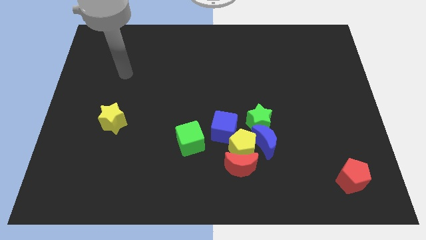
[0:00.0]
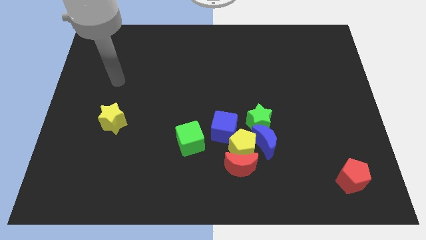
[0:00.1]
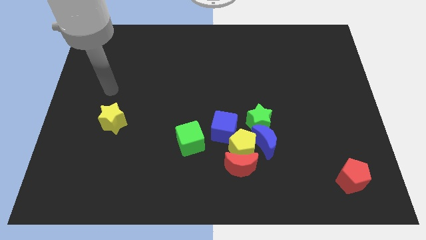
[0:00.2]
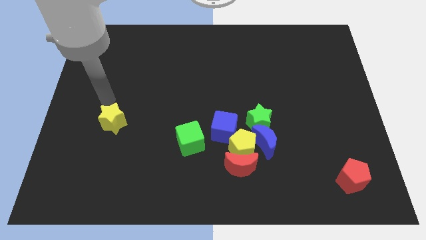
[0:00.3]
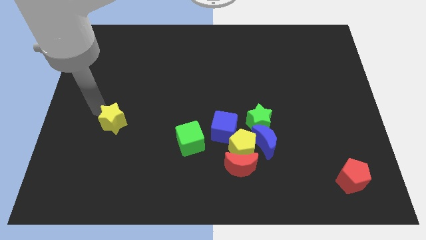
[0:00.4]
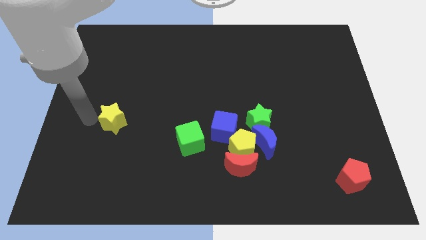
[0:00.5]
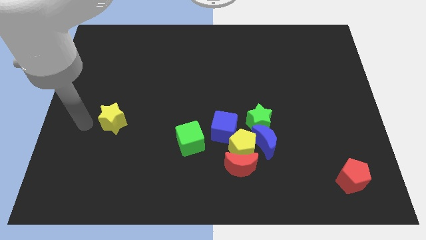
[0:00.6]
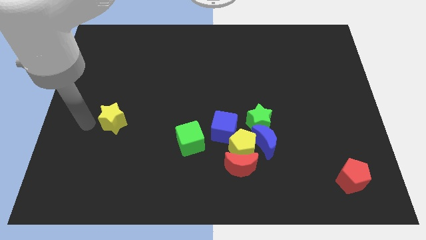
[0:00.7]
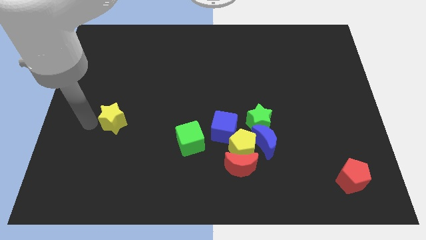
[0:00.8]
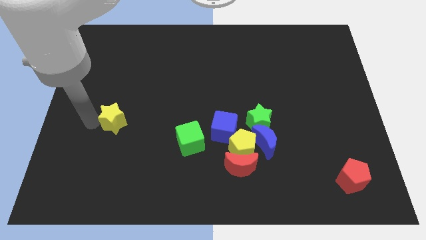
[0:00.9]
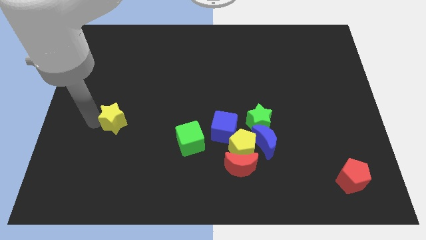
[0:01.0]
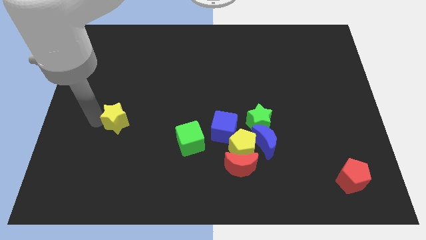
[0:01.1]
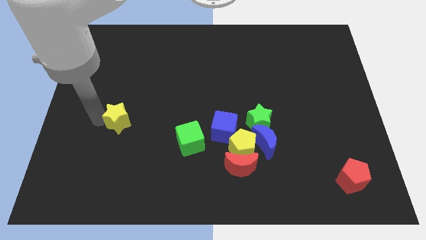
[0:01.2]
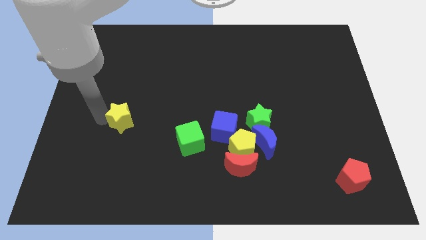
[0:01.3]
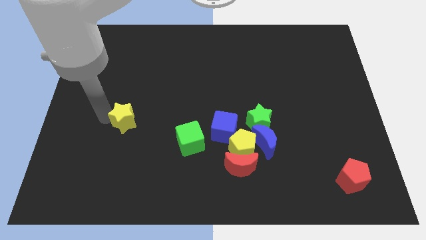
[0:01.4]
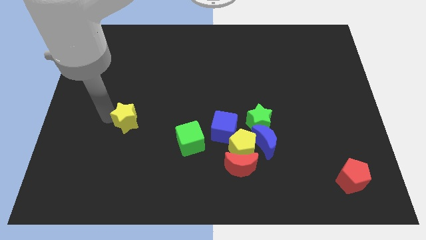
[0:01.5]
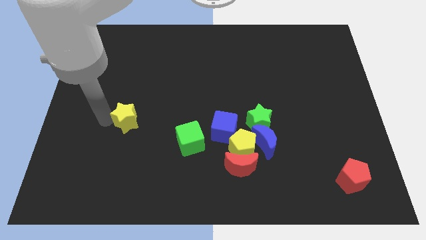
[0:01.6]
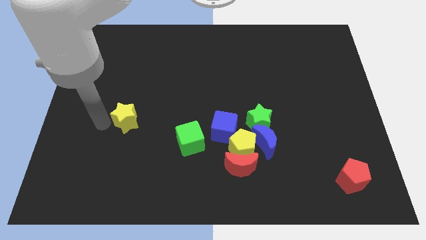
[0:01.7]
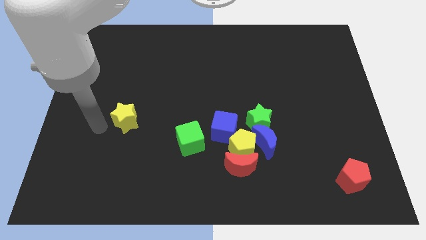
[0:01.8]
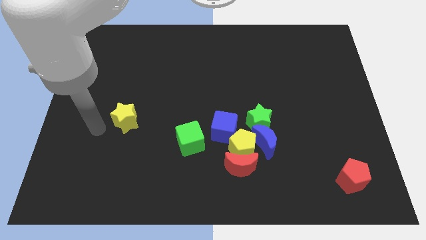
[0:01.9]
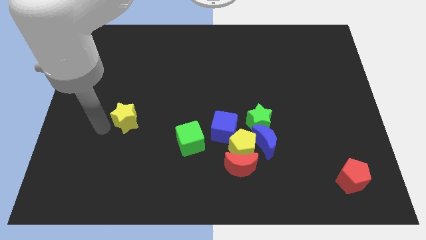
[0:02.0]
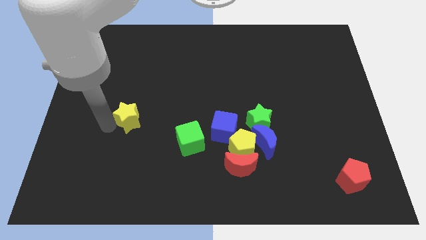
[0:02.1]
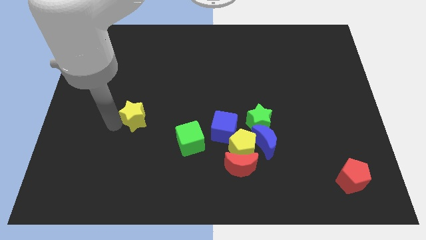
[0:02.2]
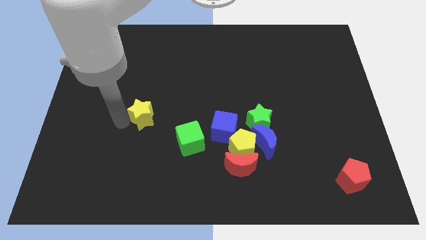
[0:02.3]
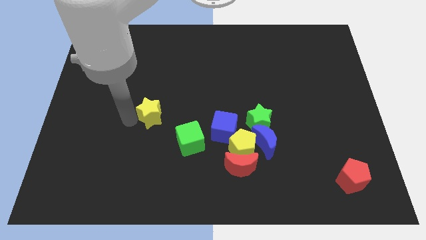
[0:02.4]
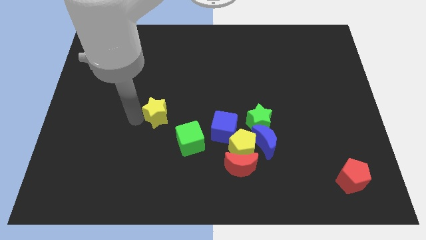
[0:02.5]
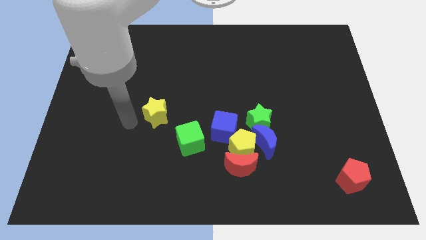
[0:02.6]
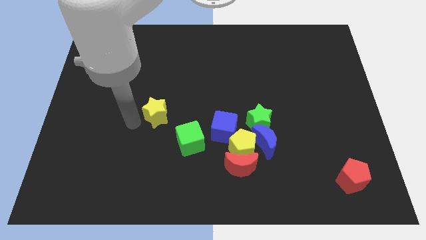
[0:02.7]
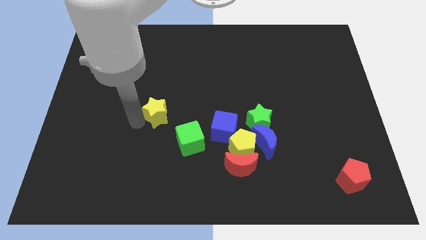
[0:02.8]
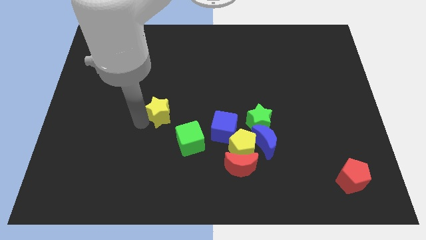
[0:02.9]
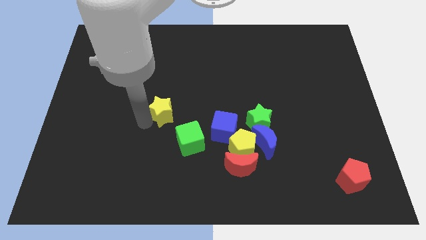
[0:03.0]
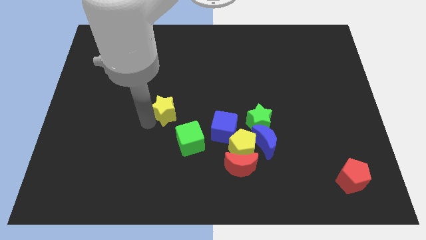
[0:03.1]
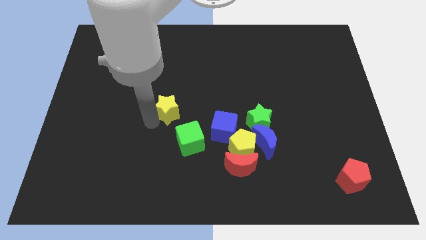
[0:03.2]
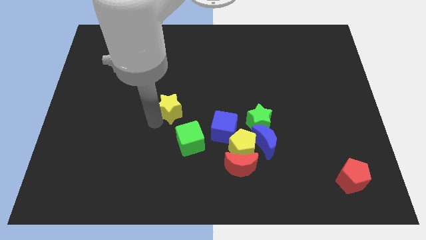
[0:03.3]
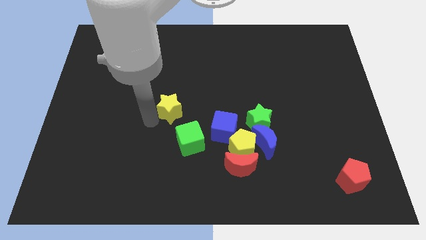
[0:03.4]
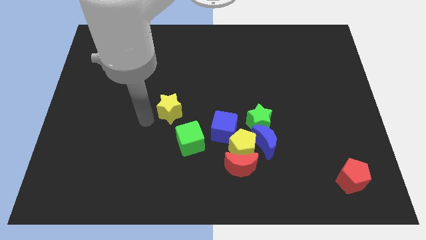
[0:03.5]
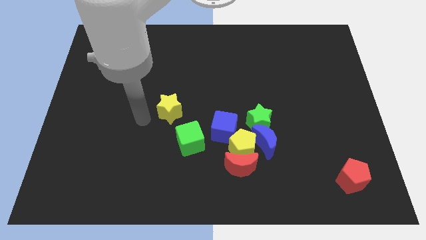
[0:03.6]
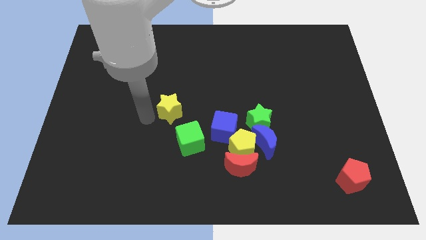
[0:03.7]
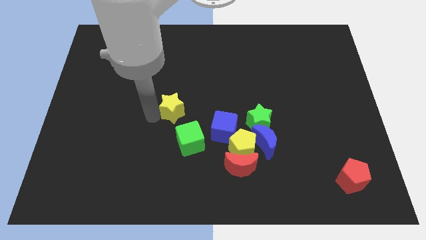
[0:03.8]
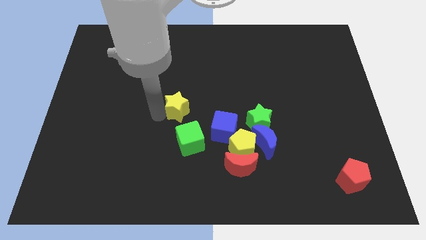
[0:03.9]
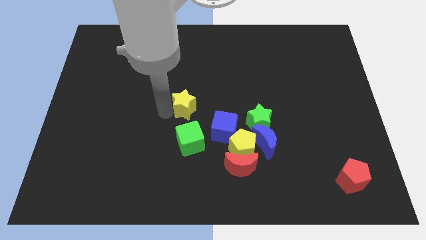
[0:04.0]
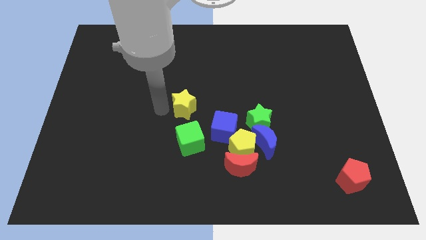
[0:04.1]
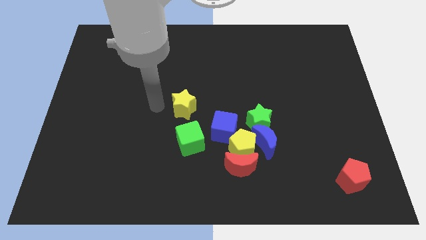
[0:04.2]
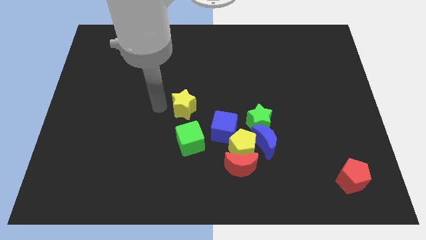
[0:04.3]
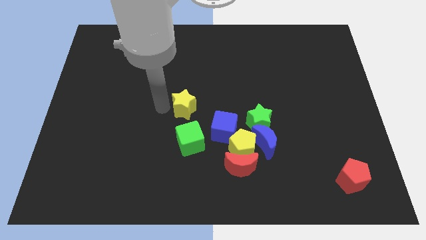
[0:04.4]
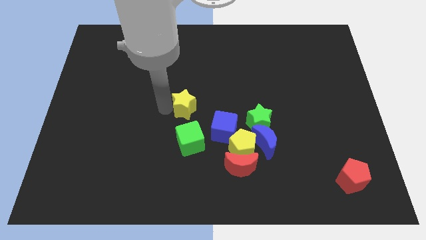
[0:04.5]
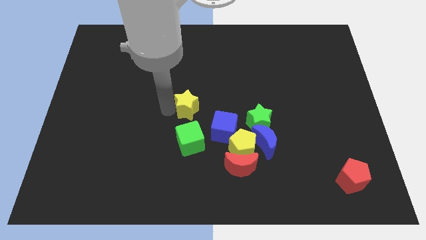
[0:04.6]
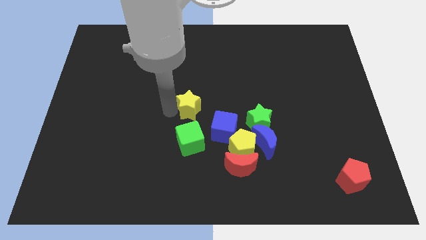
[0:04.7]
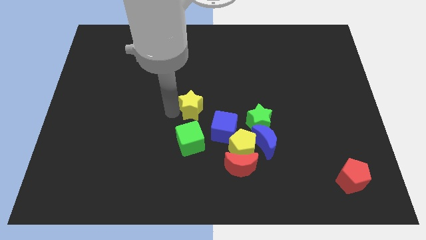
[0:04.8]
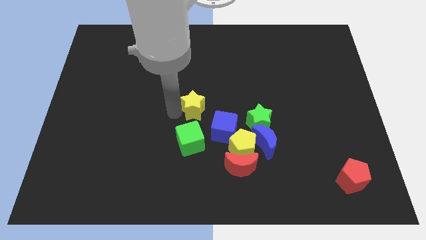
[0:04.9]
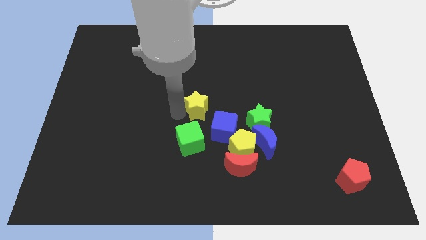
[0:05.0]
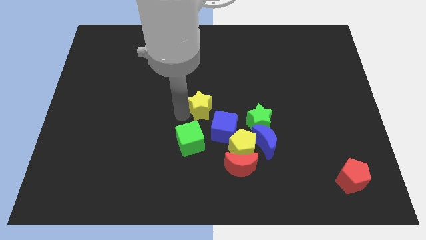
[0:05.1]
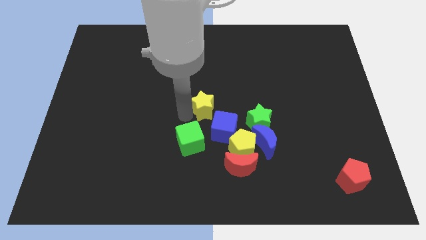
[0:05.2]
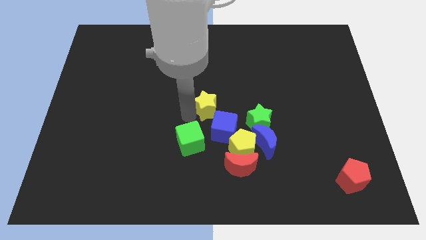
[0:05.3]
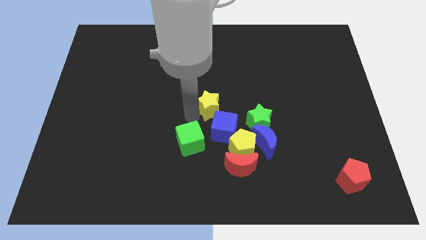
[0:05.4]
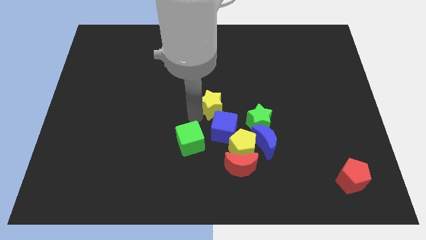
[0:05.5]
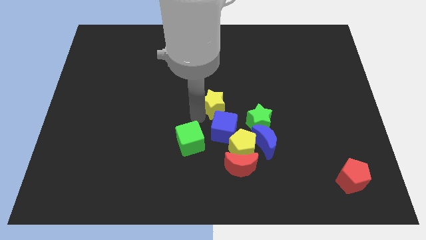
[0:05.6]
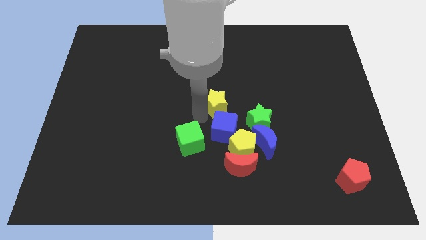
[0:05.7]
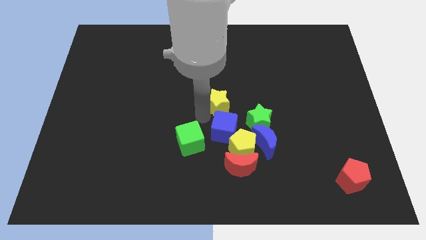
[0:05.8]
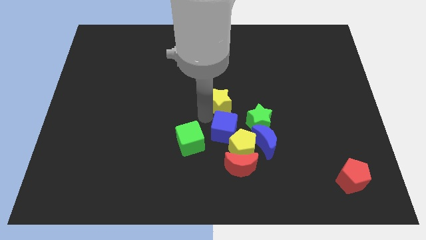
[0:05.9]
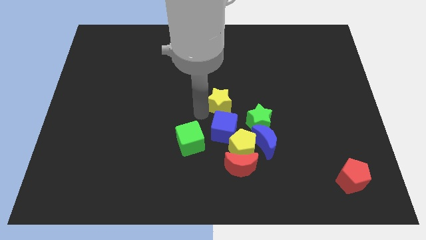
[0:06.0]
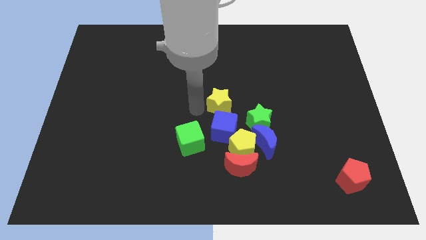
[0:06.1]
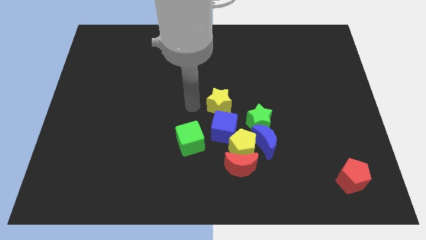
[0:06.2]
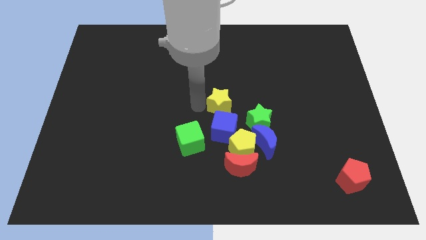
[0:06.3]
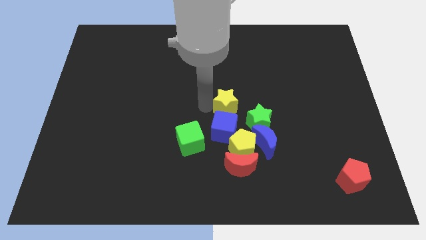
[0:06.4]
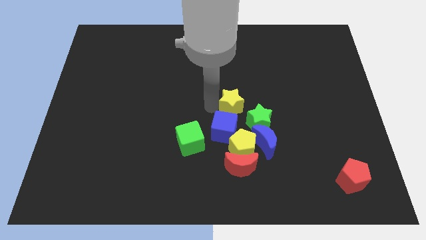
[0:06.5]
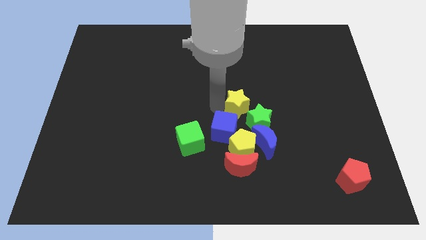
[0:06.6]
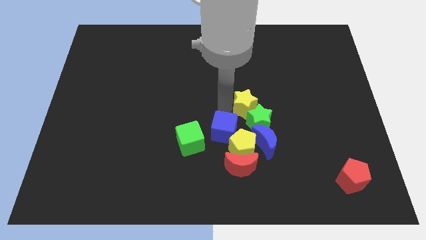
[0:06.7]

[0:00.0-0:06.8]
slide the yellow star to the top side of the blue moon

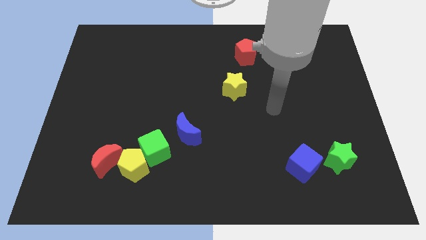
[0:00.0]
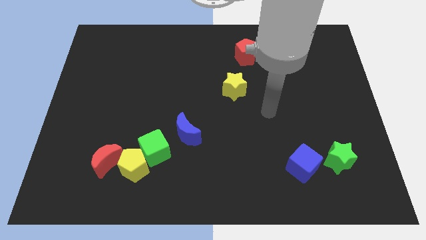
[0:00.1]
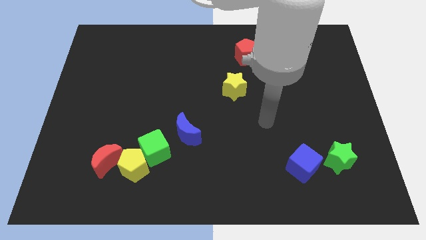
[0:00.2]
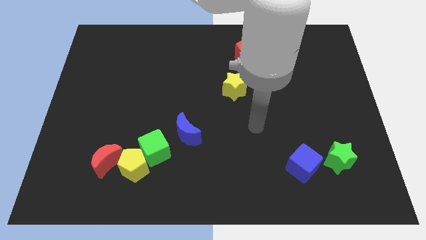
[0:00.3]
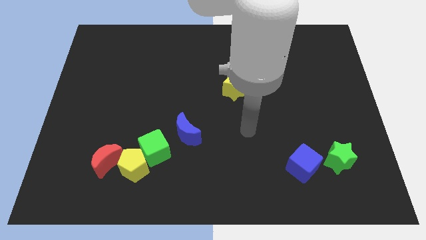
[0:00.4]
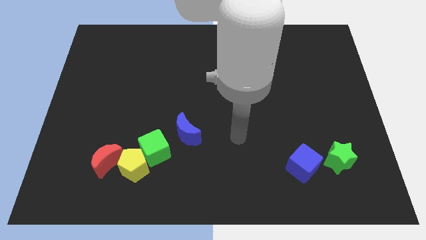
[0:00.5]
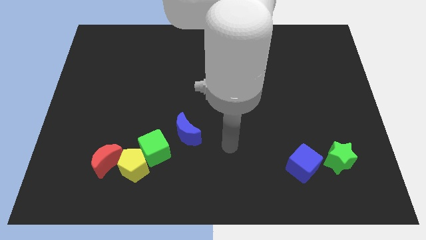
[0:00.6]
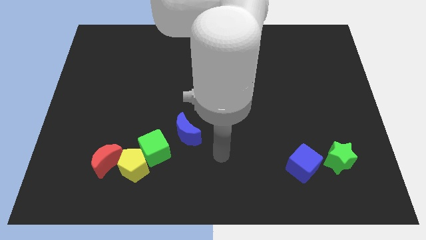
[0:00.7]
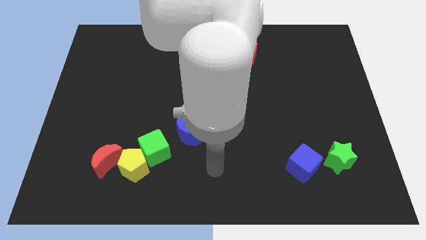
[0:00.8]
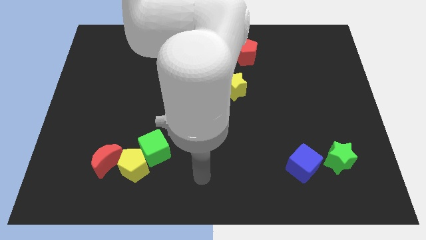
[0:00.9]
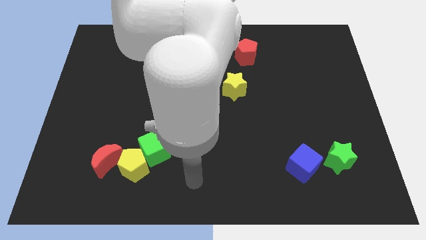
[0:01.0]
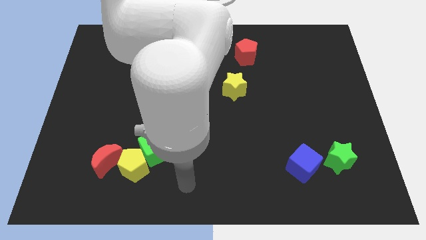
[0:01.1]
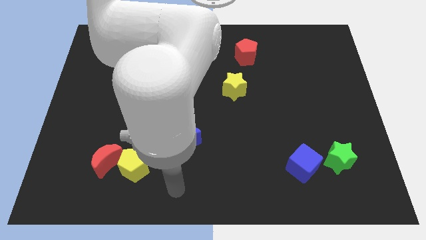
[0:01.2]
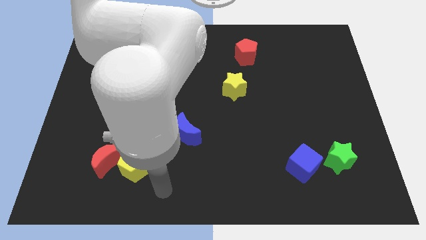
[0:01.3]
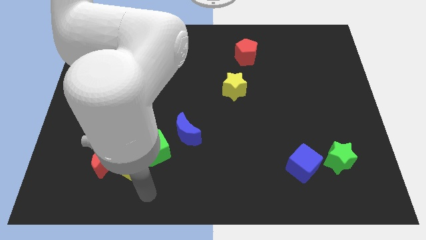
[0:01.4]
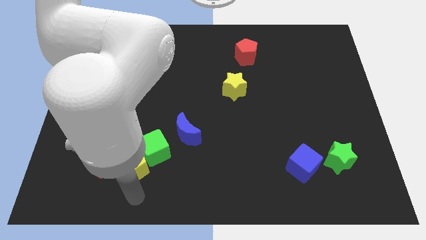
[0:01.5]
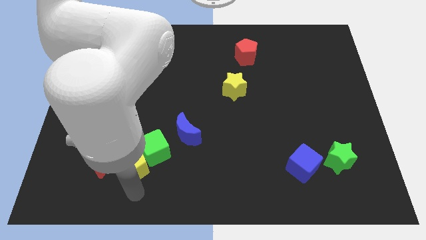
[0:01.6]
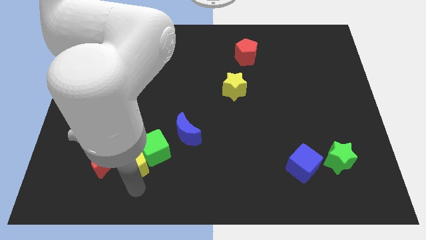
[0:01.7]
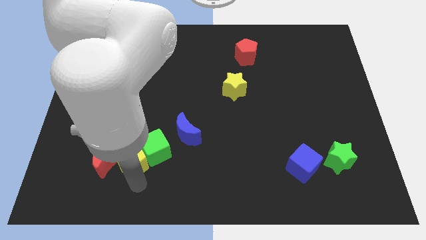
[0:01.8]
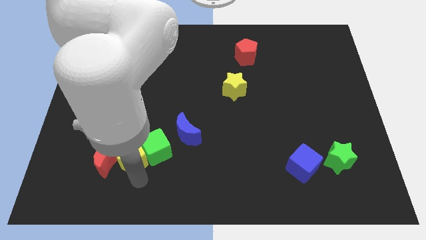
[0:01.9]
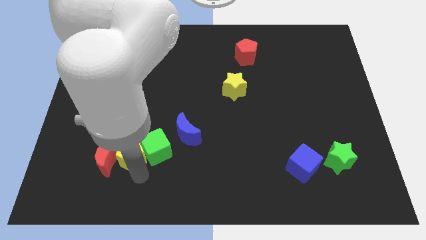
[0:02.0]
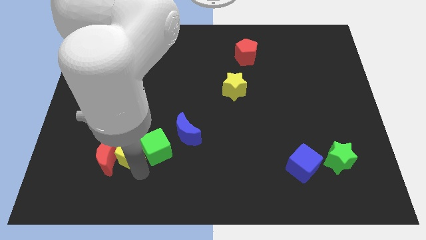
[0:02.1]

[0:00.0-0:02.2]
slide the yellow pentagon to the top left side of the green cube
